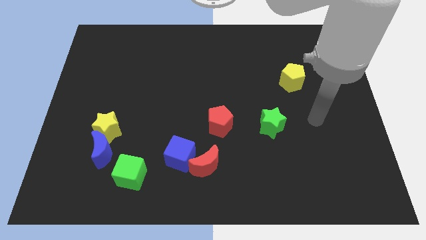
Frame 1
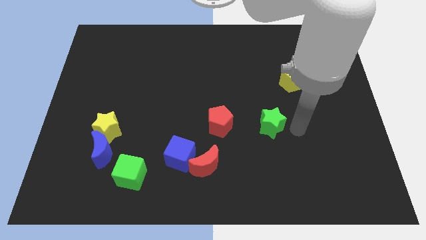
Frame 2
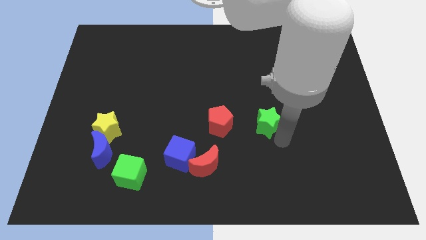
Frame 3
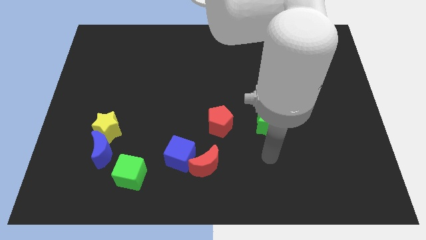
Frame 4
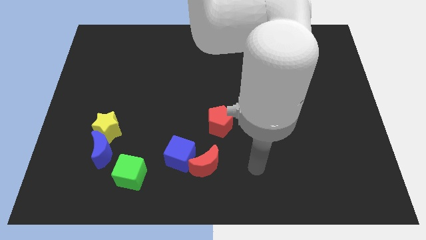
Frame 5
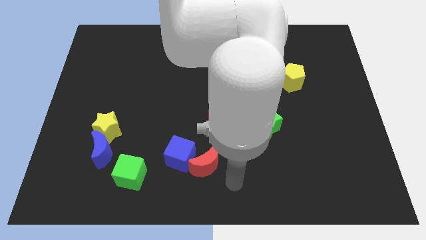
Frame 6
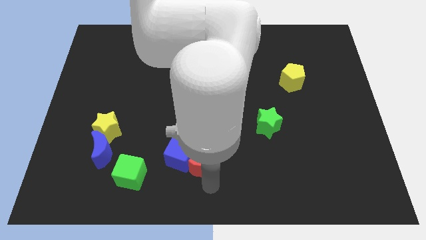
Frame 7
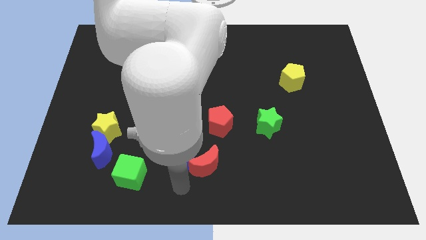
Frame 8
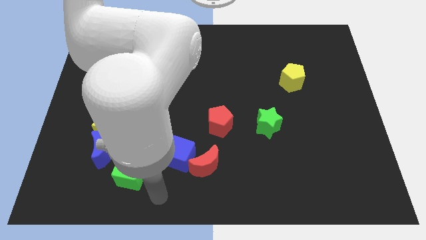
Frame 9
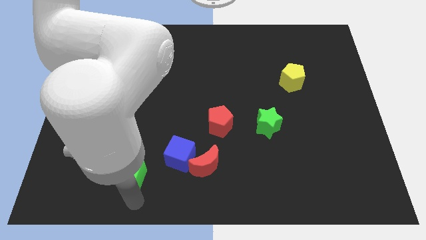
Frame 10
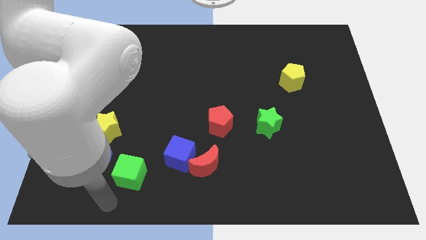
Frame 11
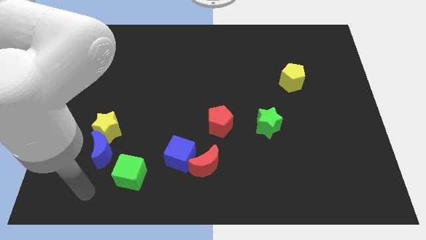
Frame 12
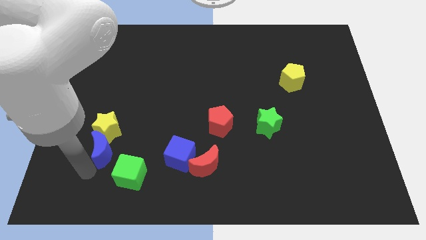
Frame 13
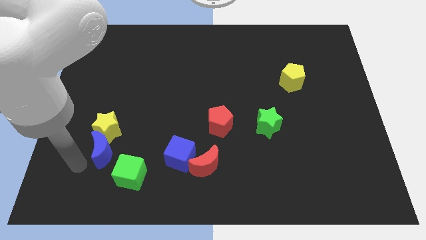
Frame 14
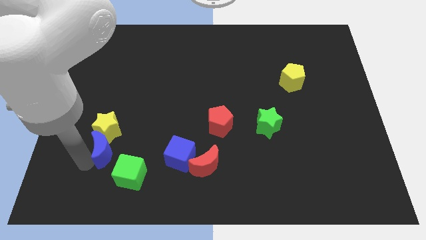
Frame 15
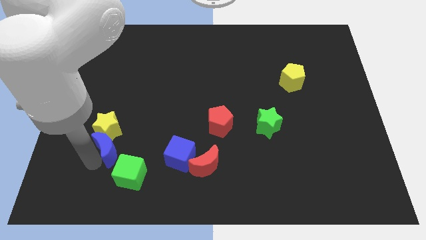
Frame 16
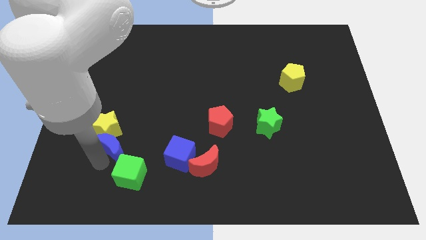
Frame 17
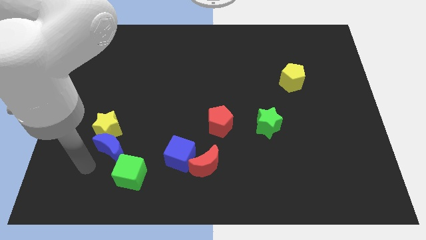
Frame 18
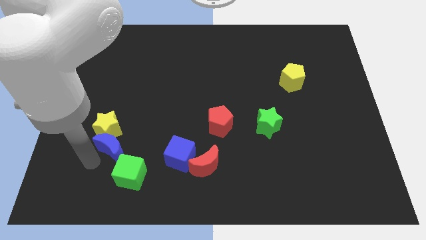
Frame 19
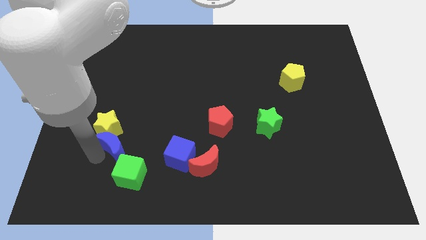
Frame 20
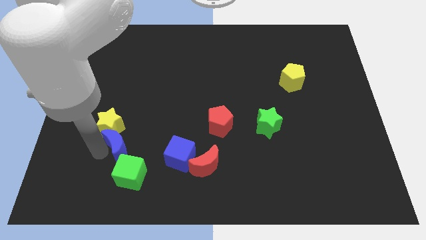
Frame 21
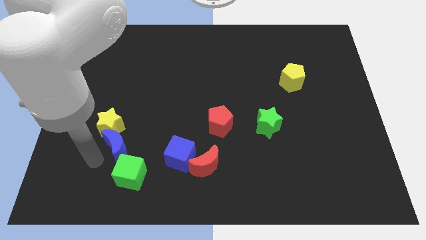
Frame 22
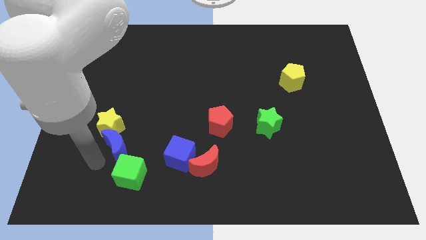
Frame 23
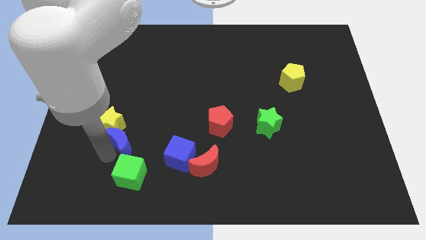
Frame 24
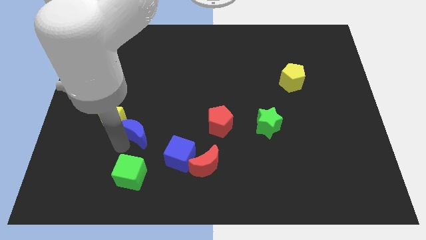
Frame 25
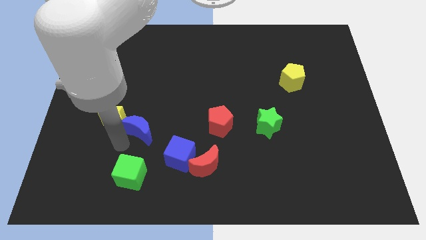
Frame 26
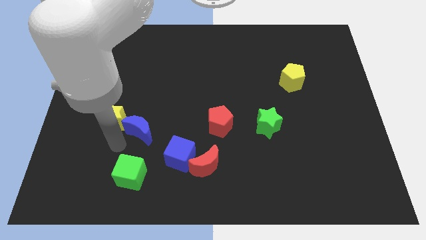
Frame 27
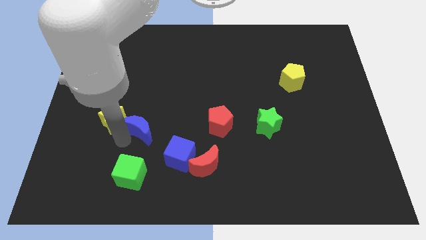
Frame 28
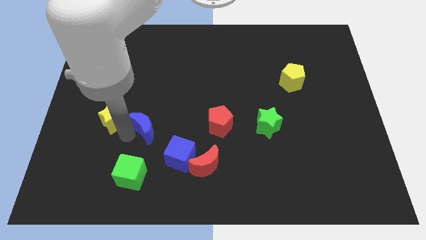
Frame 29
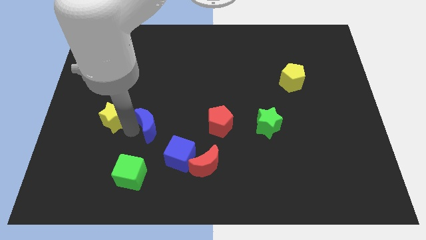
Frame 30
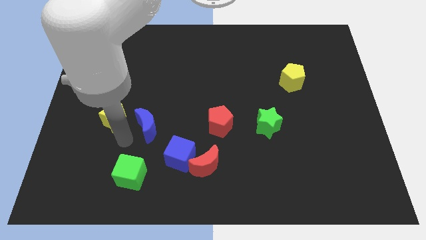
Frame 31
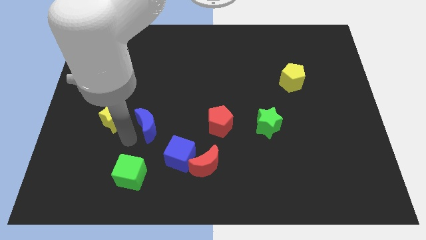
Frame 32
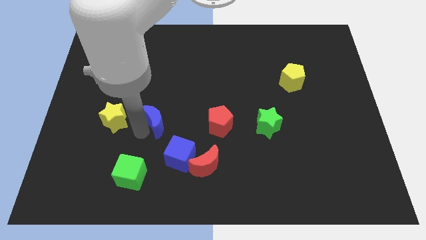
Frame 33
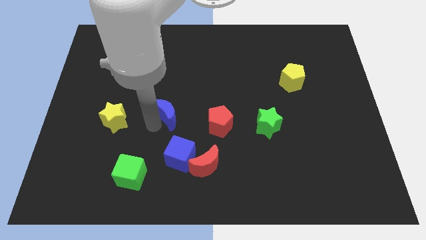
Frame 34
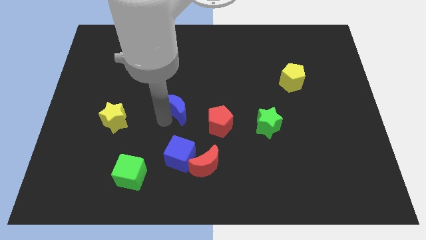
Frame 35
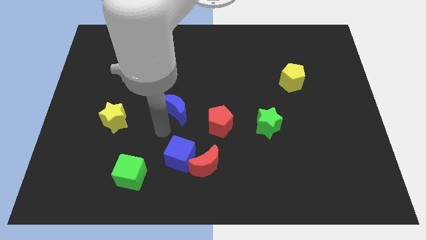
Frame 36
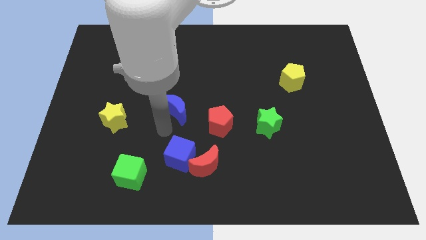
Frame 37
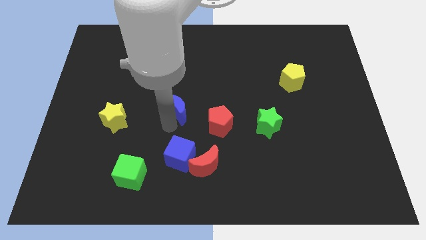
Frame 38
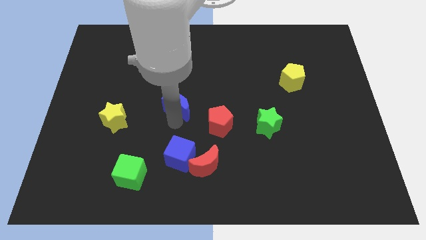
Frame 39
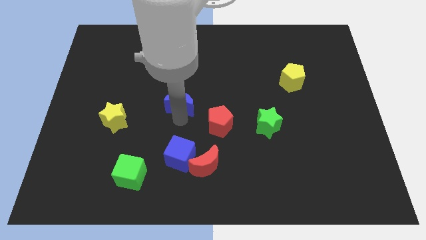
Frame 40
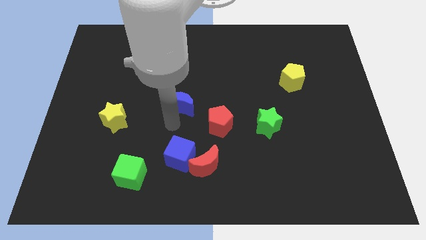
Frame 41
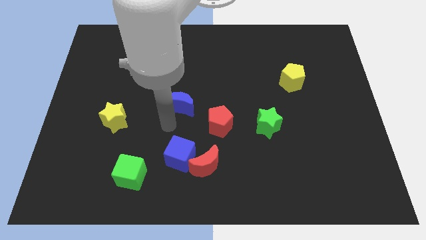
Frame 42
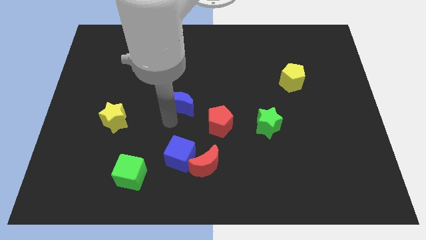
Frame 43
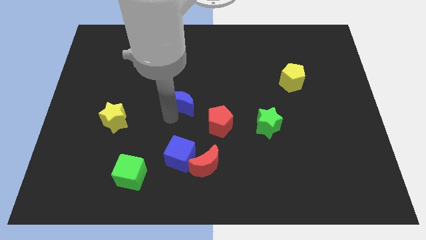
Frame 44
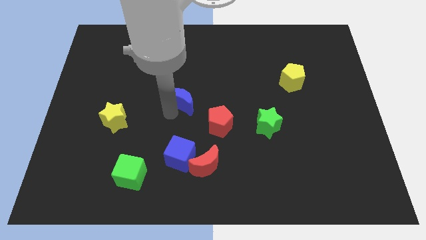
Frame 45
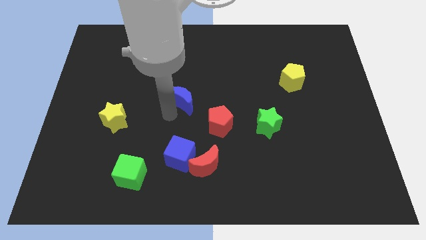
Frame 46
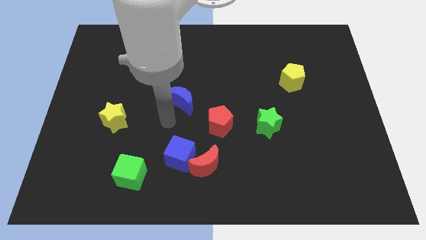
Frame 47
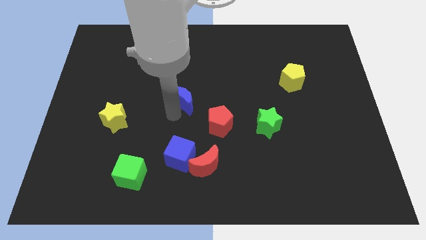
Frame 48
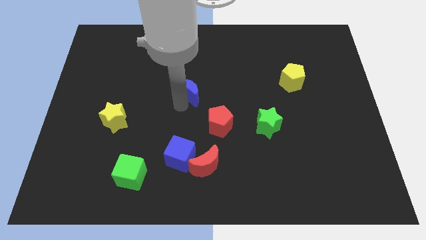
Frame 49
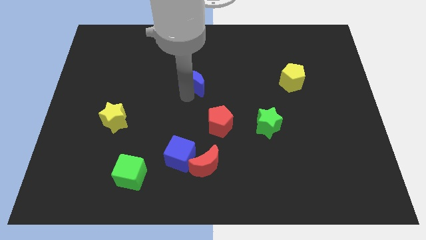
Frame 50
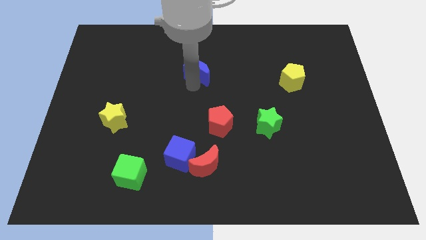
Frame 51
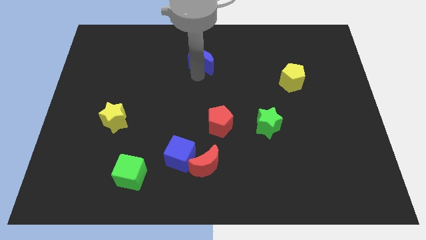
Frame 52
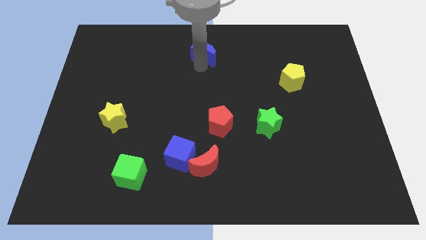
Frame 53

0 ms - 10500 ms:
push the blue moon to the towards your base

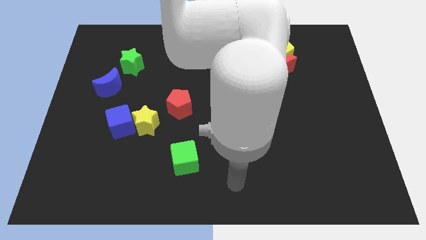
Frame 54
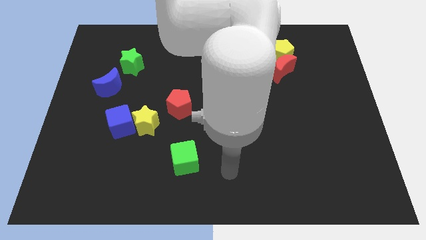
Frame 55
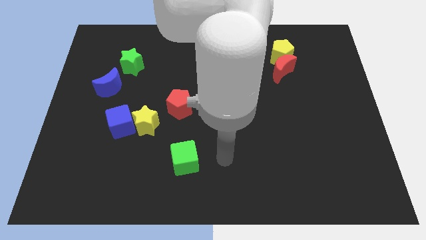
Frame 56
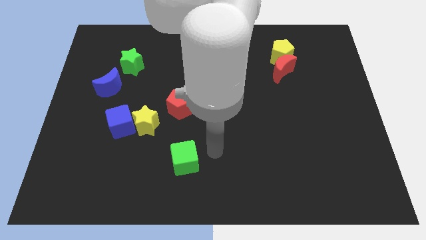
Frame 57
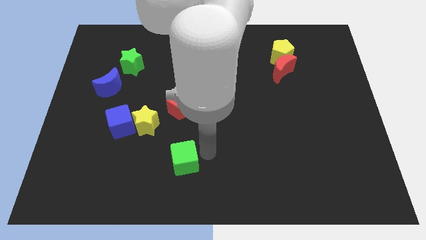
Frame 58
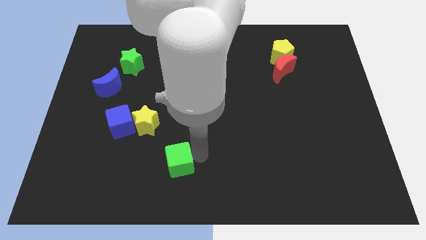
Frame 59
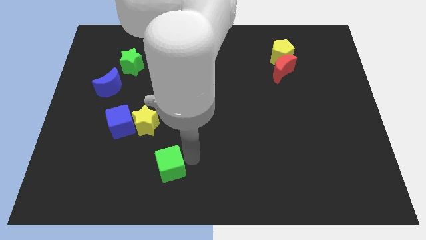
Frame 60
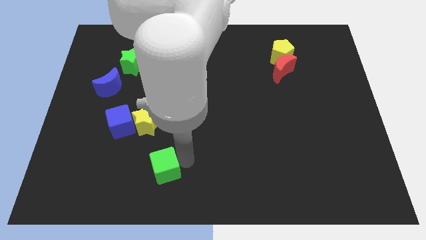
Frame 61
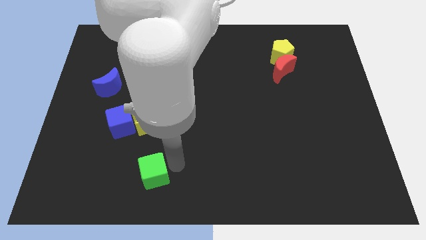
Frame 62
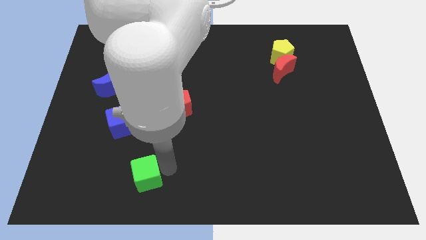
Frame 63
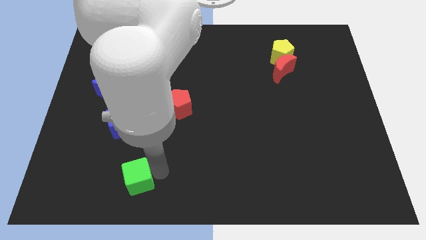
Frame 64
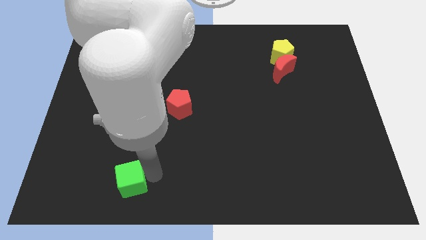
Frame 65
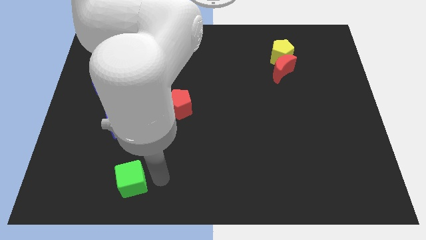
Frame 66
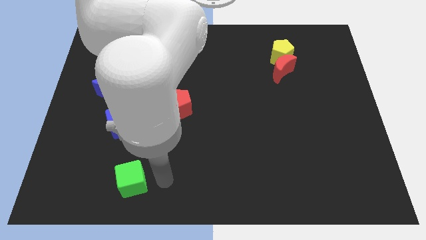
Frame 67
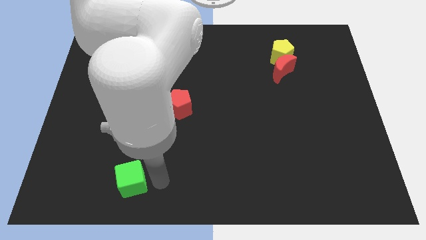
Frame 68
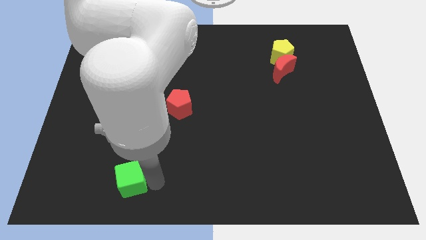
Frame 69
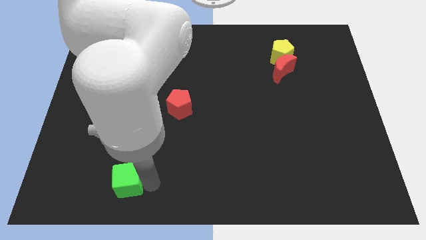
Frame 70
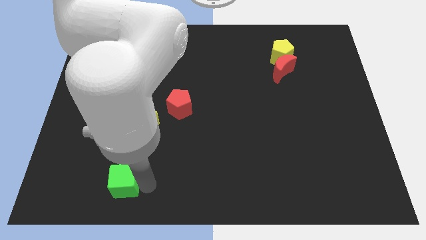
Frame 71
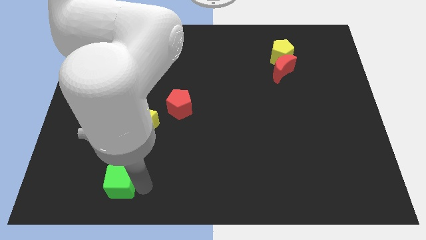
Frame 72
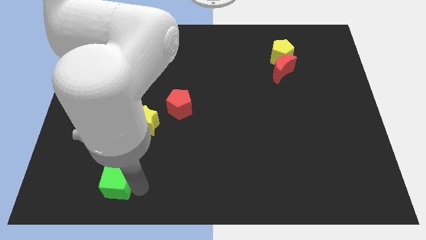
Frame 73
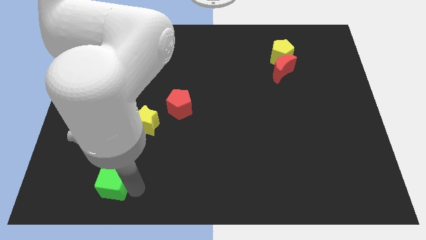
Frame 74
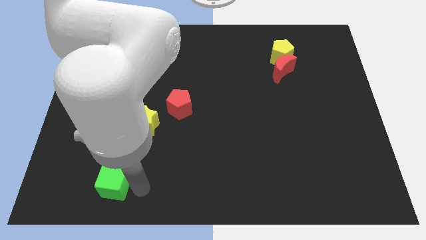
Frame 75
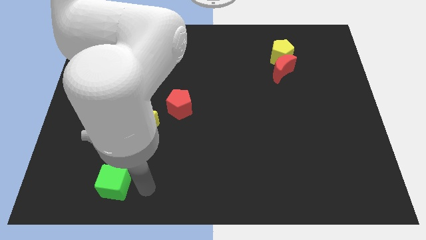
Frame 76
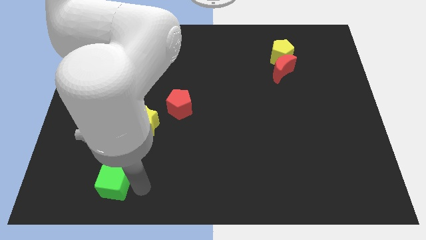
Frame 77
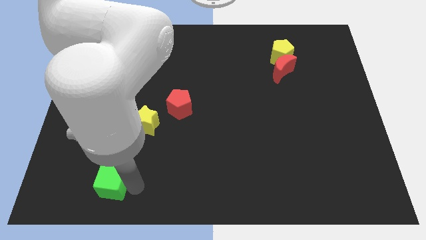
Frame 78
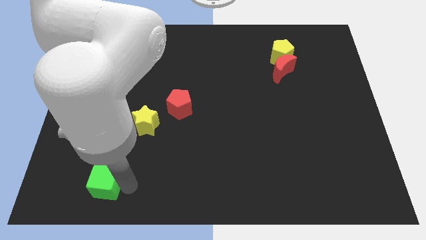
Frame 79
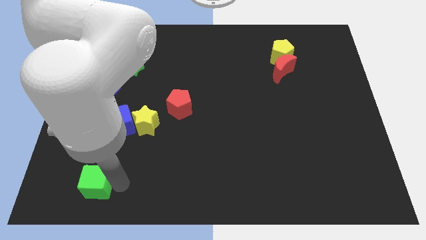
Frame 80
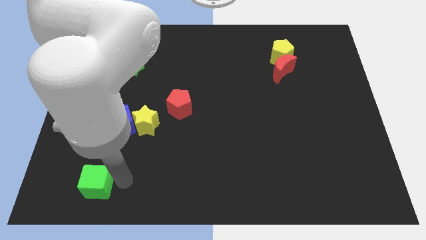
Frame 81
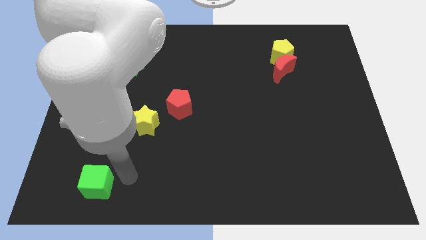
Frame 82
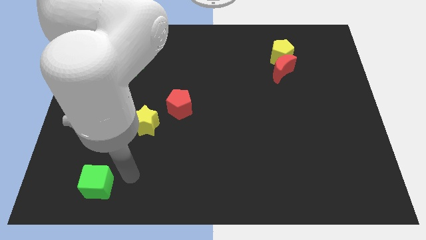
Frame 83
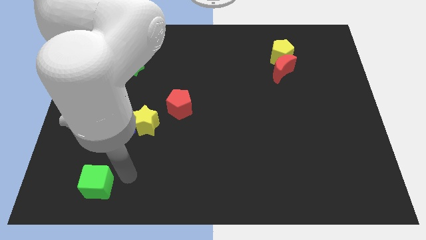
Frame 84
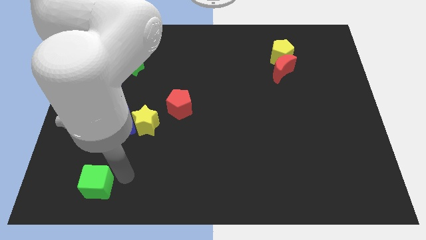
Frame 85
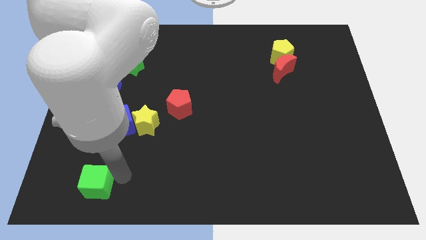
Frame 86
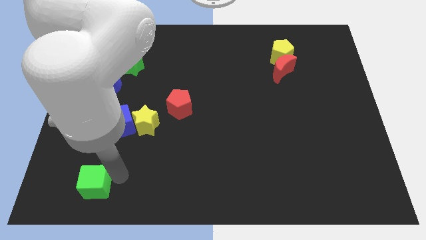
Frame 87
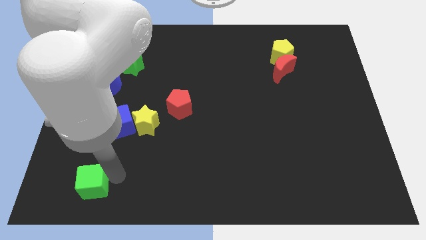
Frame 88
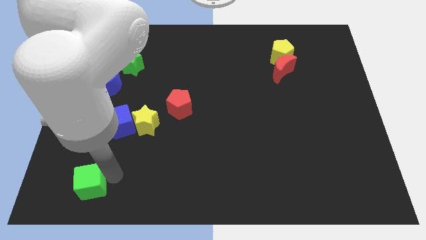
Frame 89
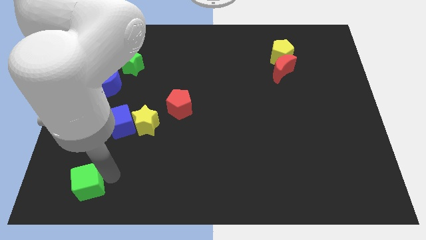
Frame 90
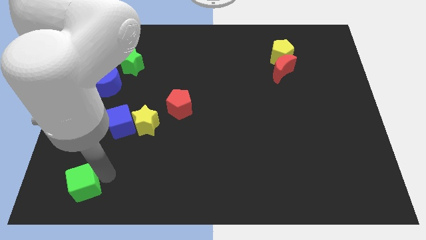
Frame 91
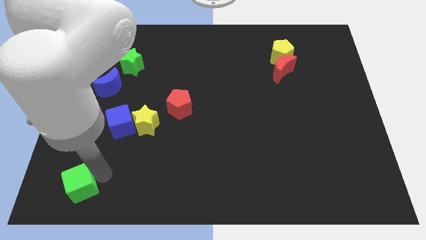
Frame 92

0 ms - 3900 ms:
move the green cube to the lower left corner
